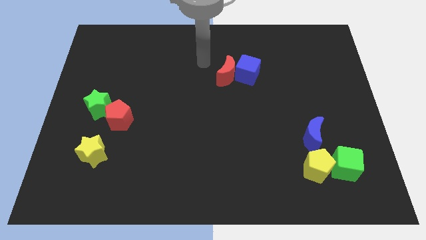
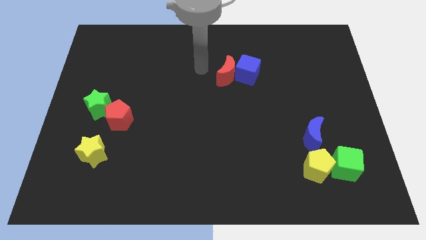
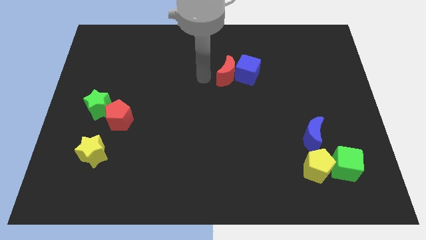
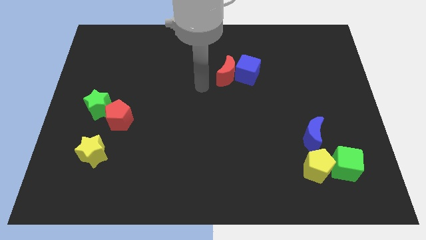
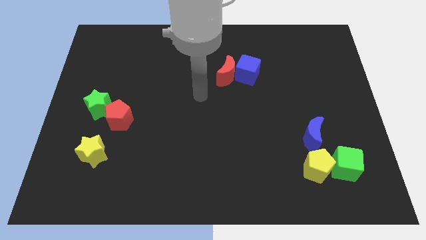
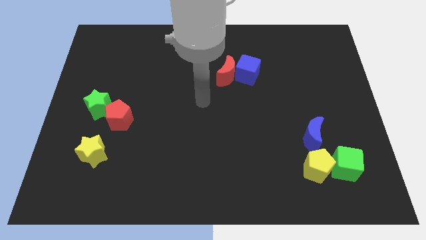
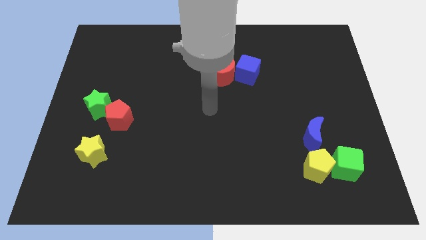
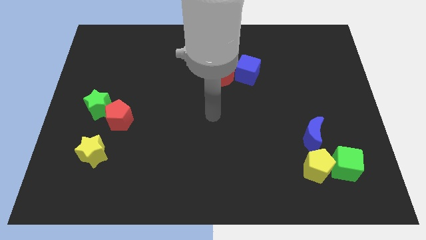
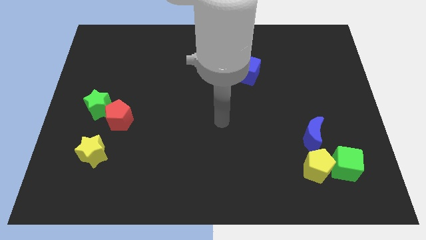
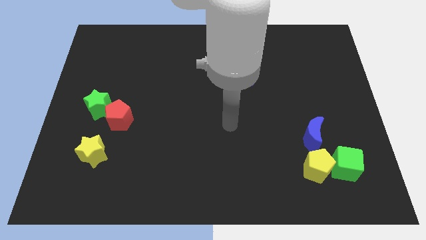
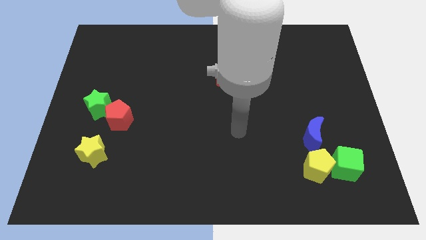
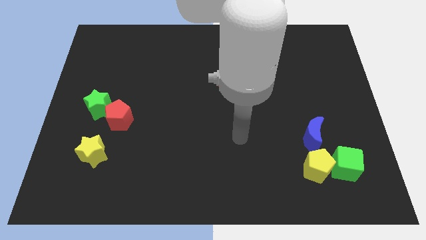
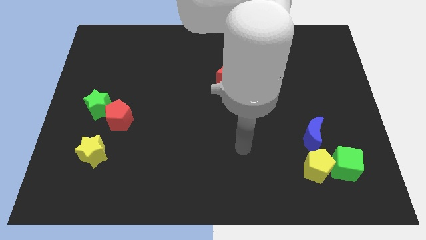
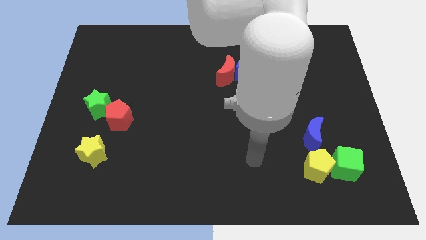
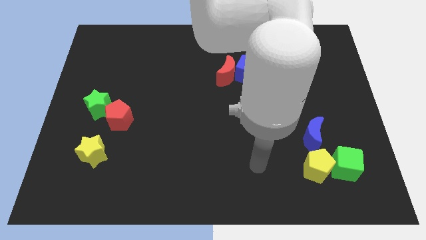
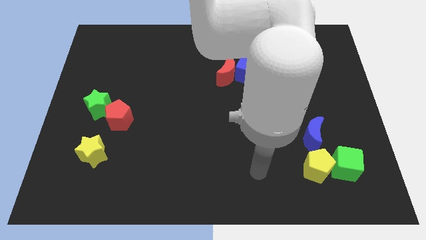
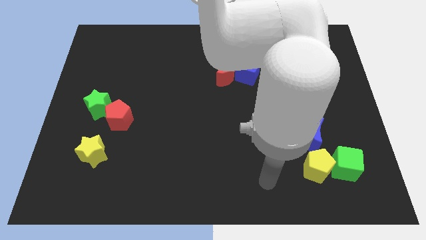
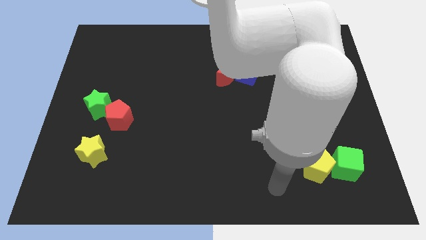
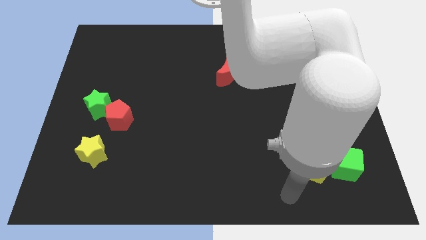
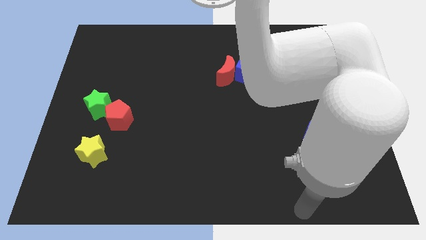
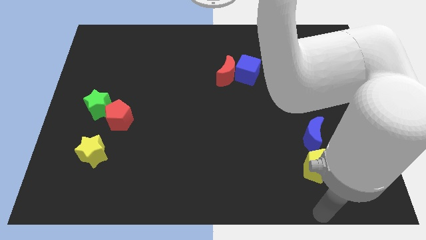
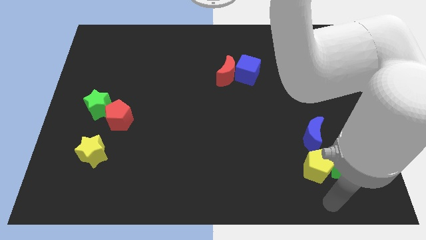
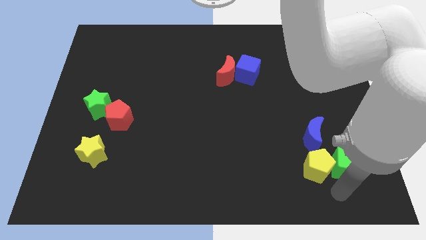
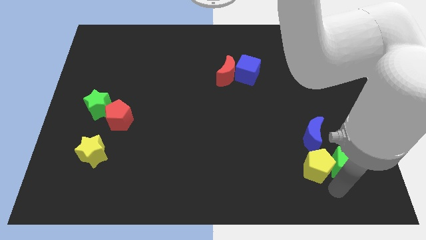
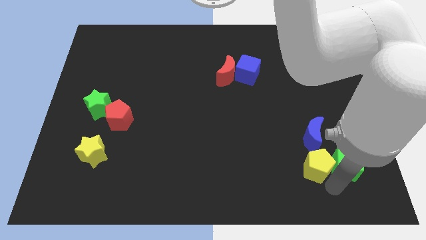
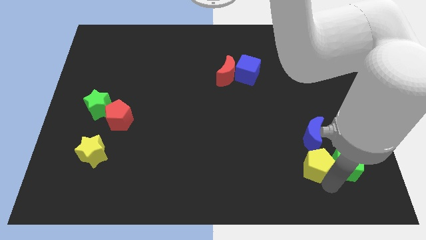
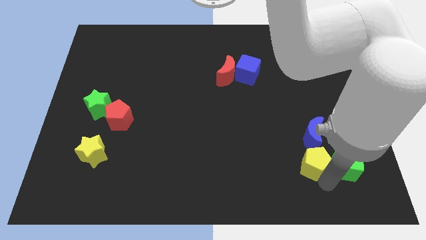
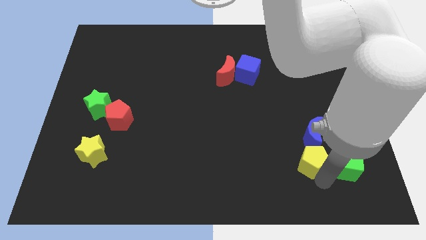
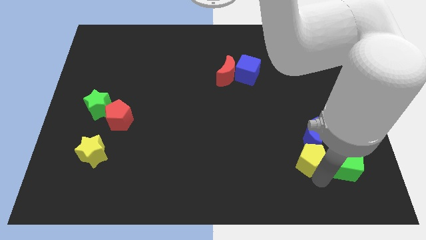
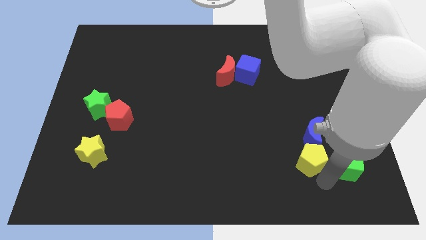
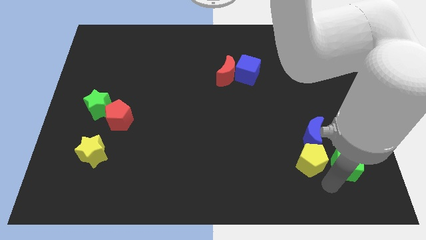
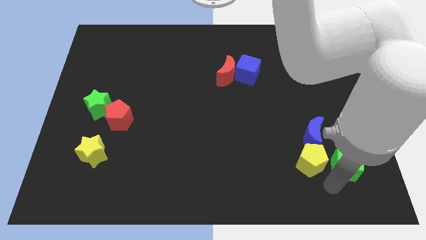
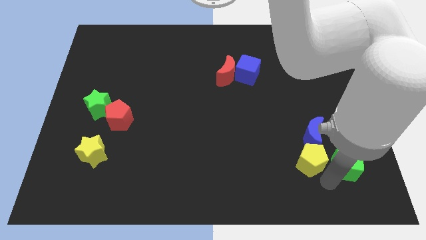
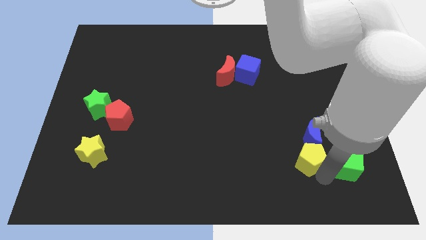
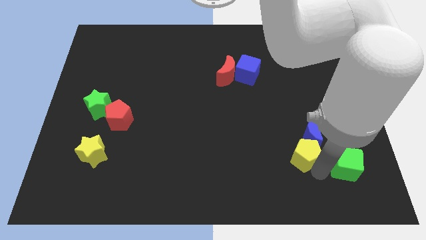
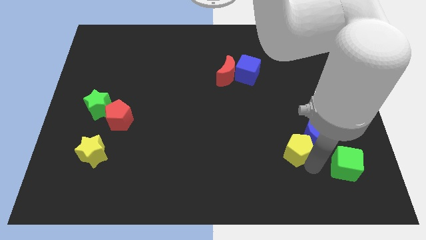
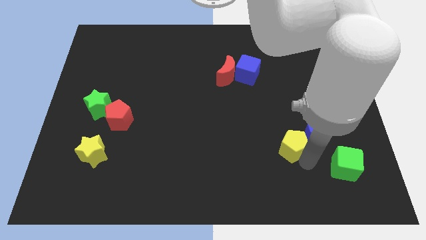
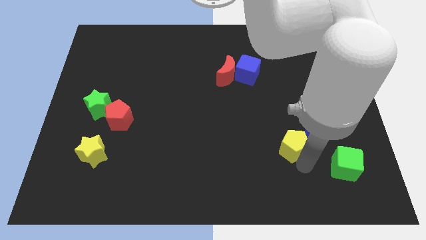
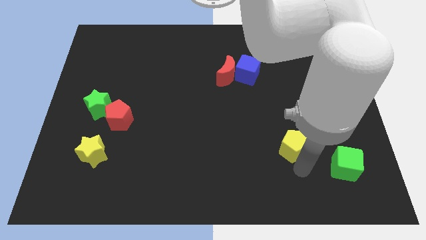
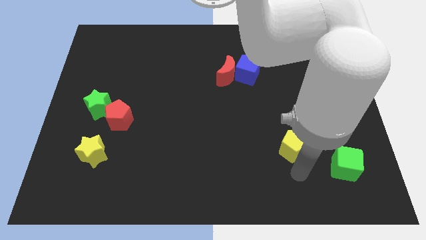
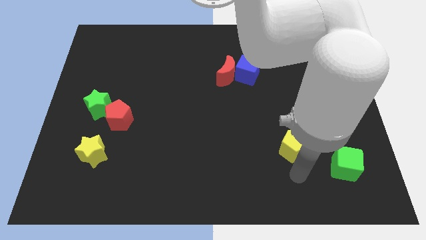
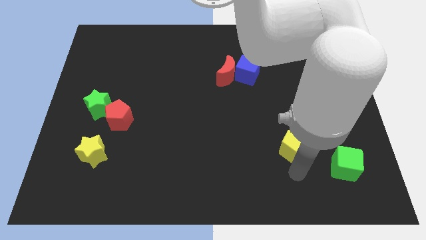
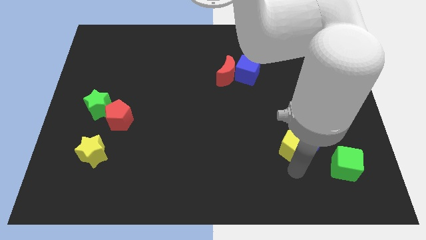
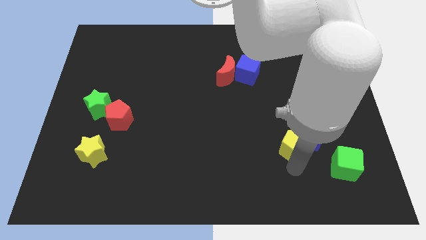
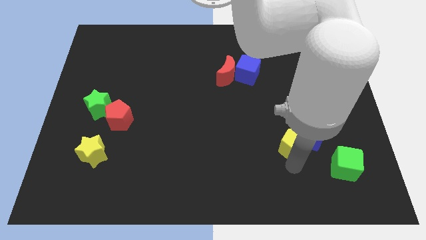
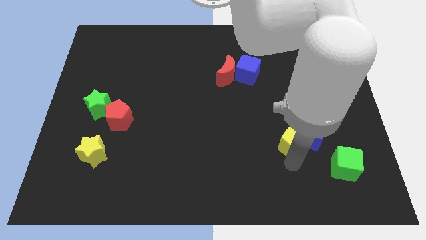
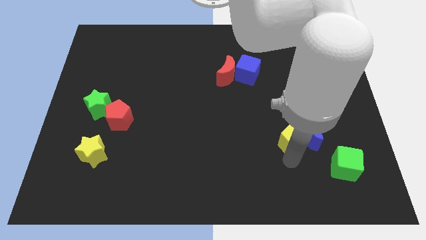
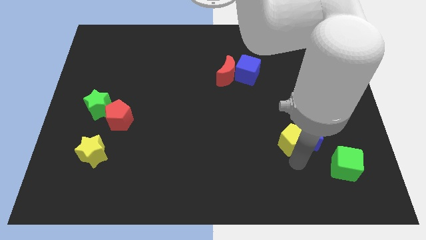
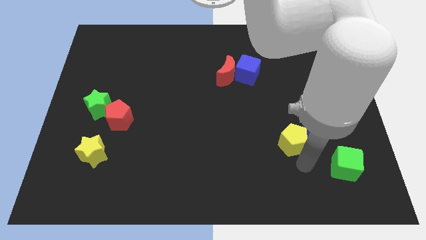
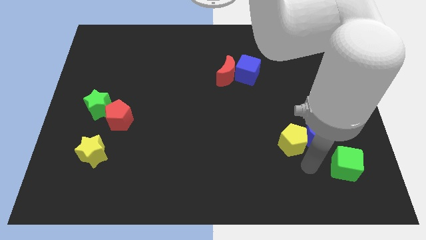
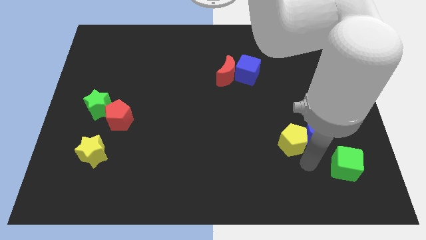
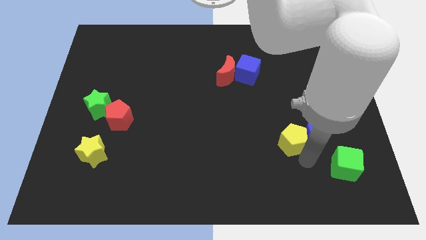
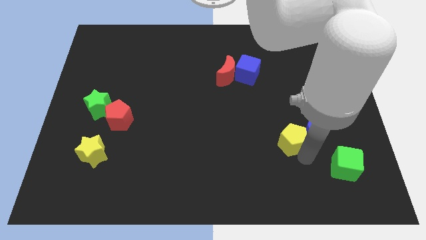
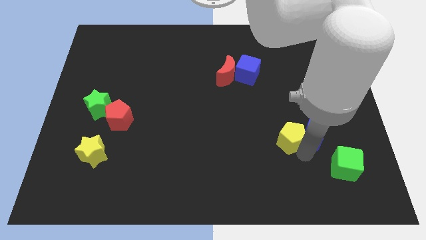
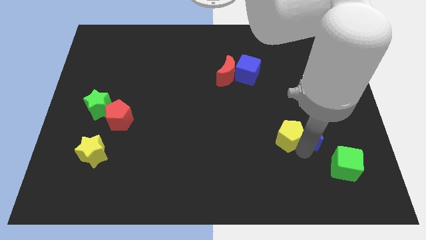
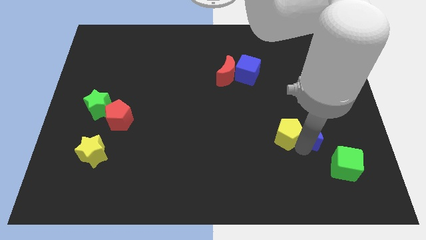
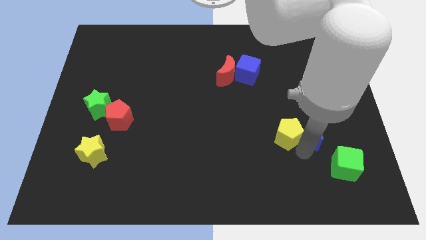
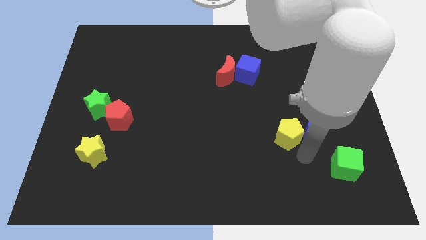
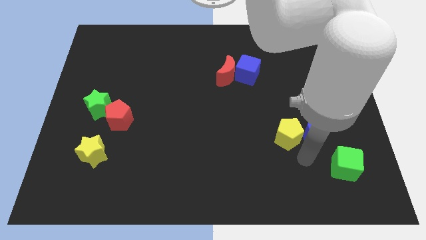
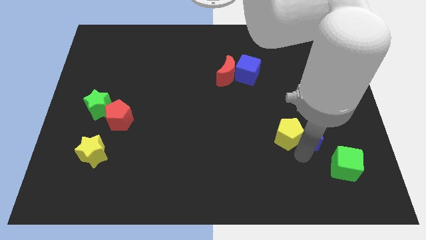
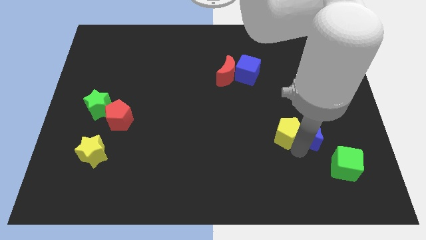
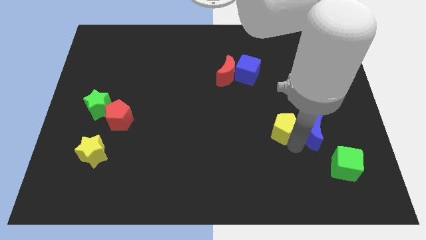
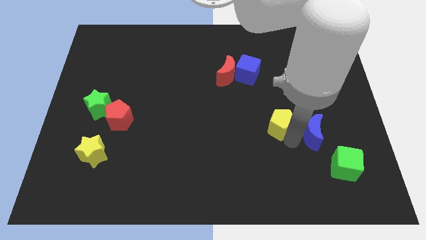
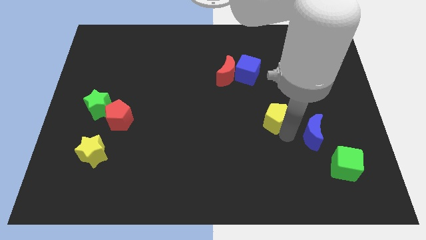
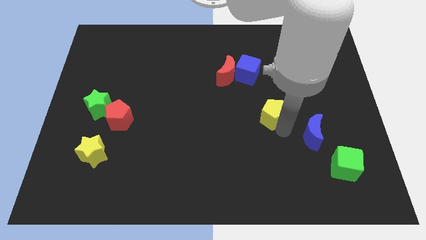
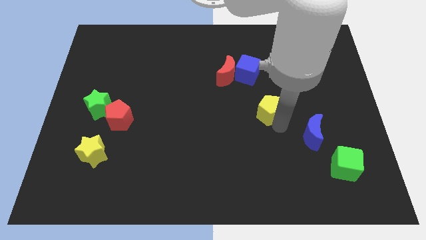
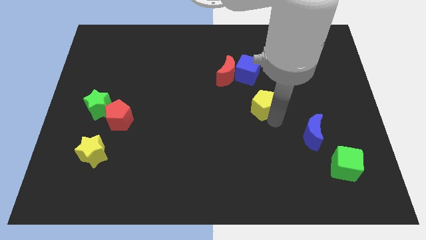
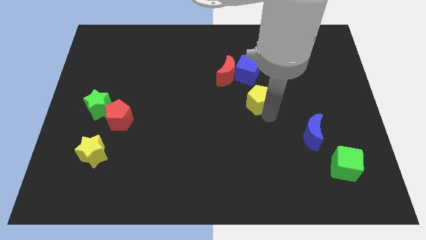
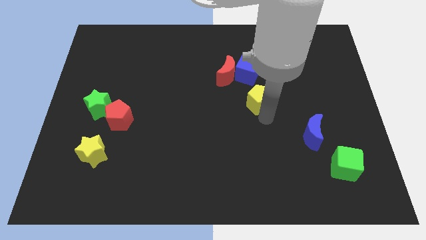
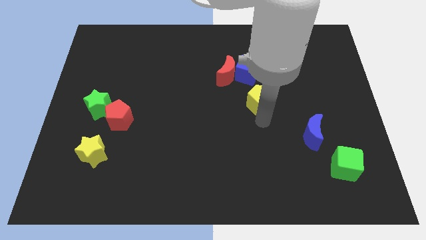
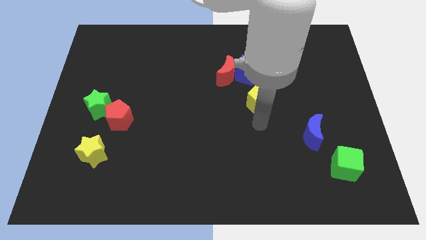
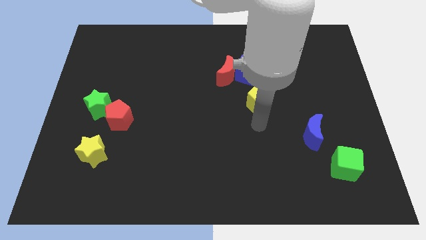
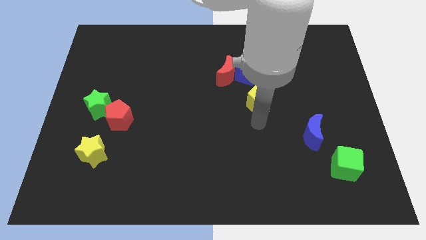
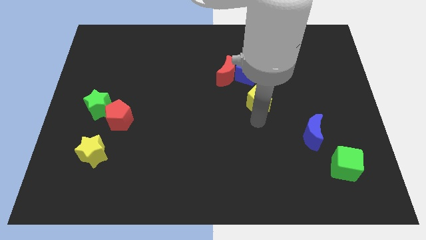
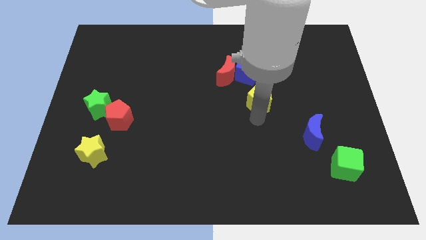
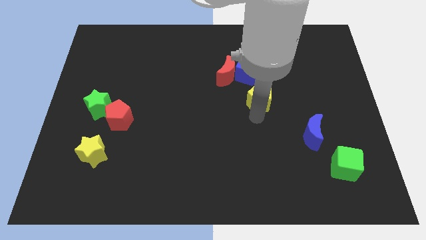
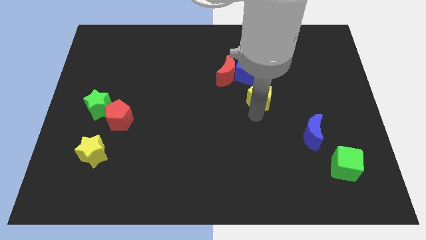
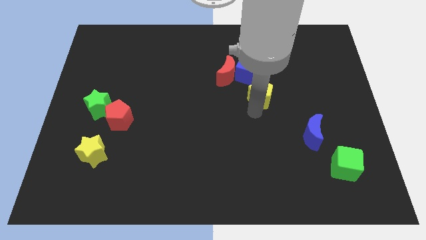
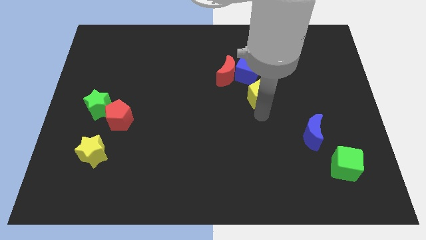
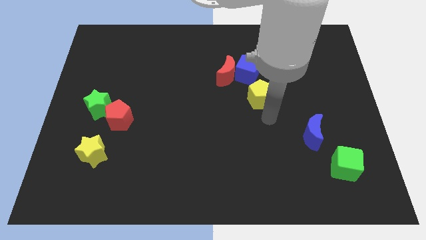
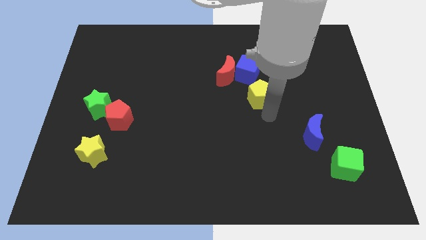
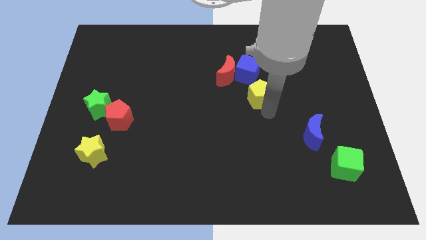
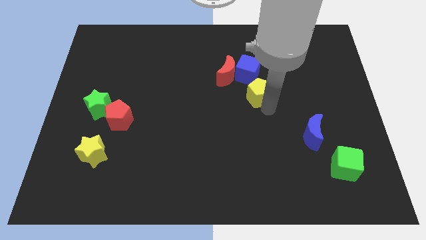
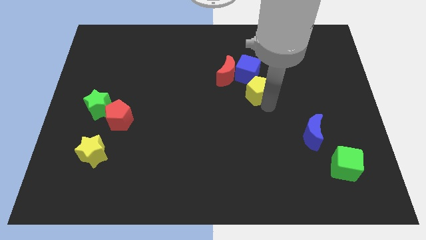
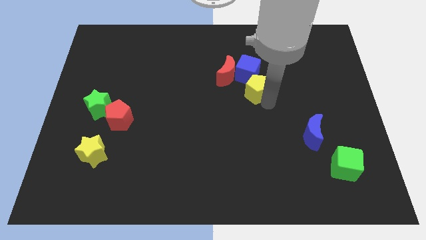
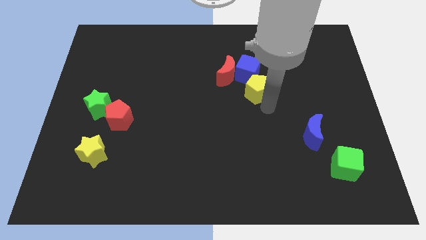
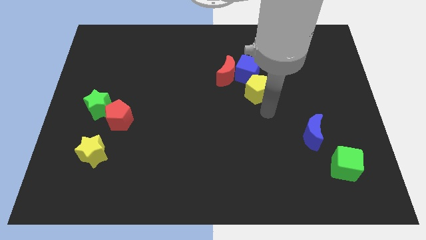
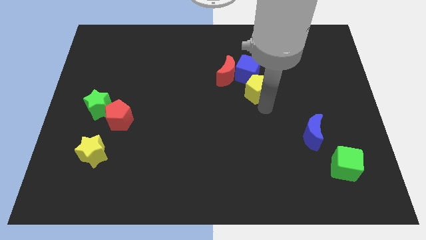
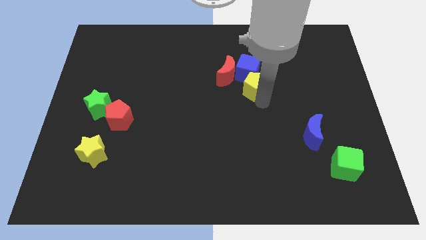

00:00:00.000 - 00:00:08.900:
push the yellow pentagon towards the blue cube
